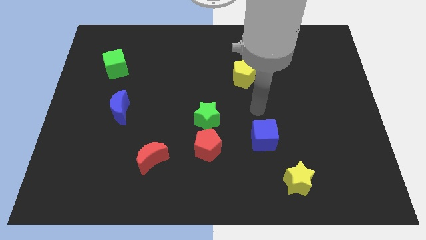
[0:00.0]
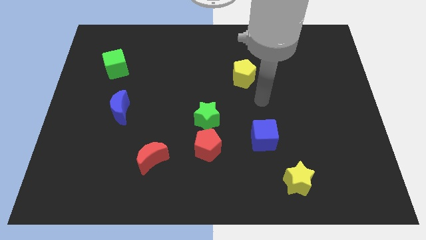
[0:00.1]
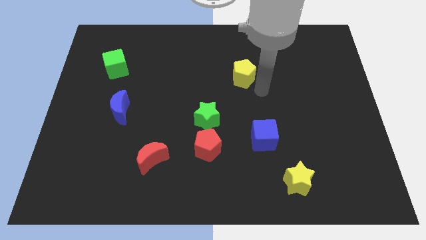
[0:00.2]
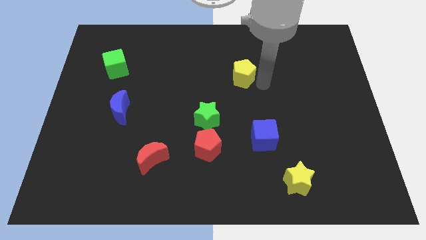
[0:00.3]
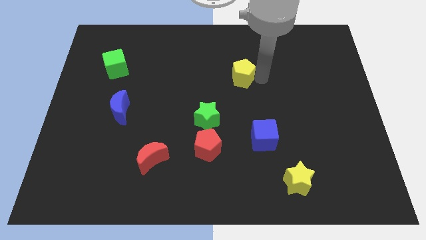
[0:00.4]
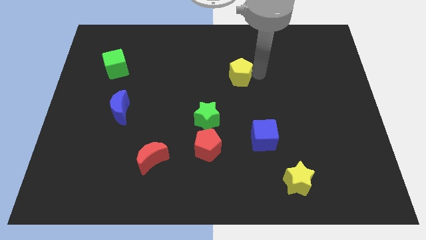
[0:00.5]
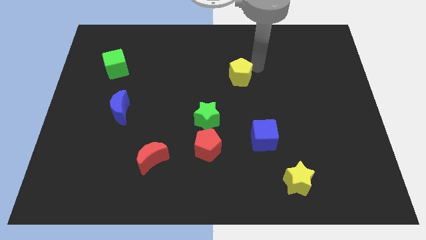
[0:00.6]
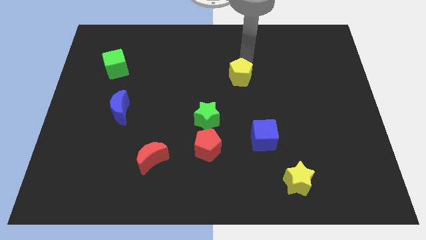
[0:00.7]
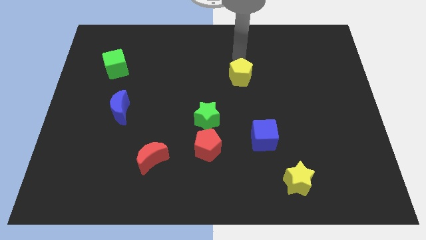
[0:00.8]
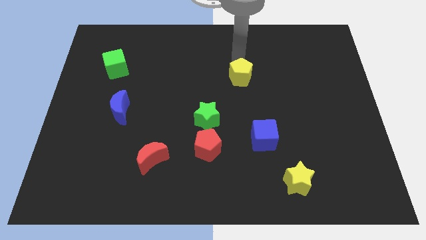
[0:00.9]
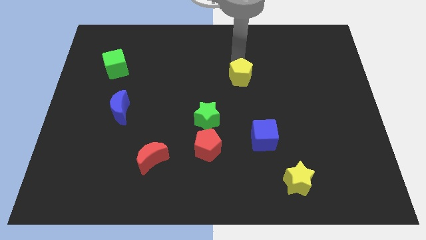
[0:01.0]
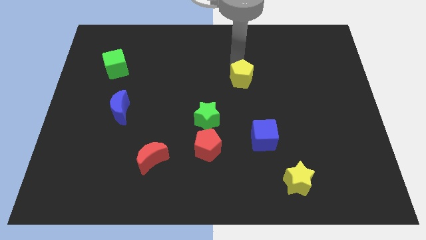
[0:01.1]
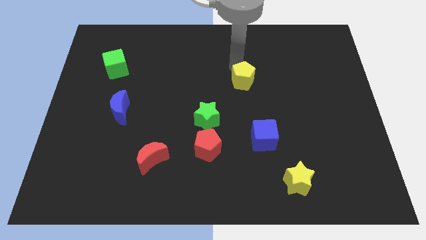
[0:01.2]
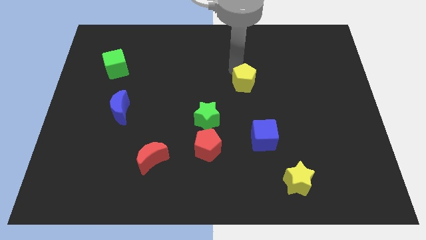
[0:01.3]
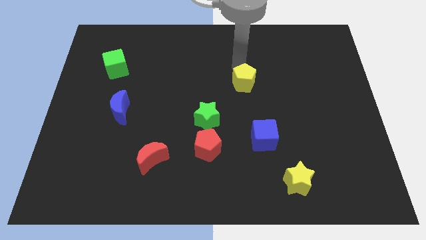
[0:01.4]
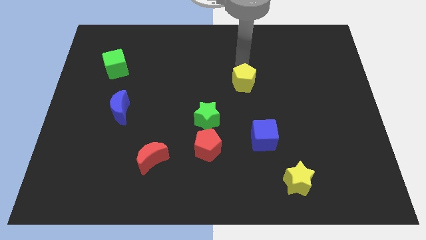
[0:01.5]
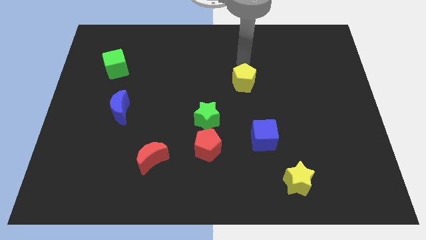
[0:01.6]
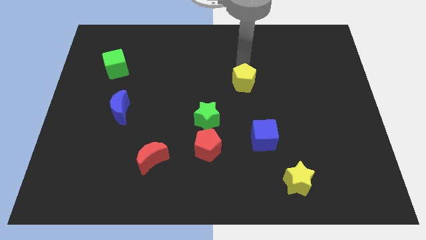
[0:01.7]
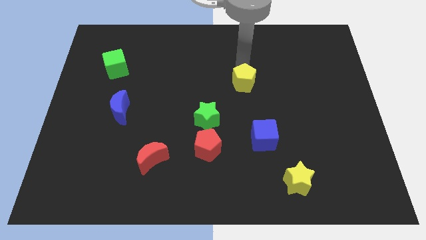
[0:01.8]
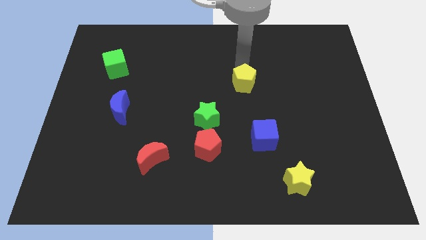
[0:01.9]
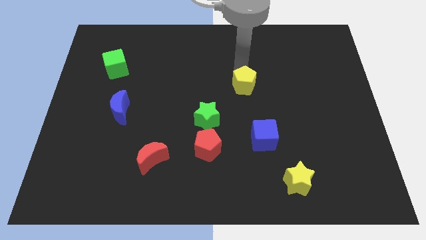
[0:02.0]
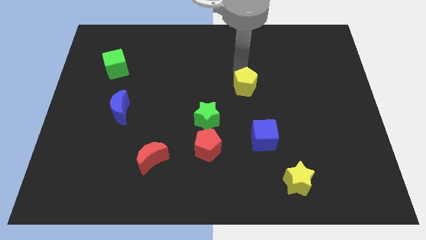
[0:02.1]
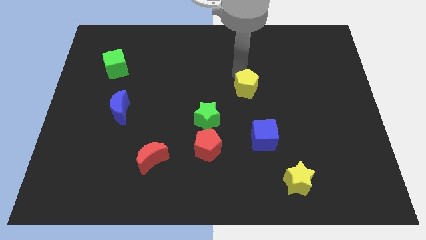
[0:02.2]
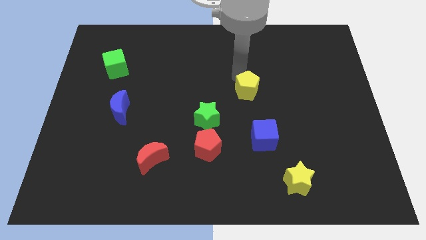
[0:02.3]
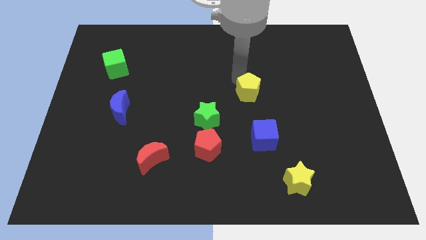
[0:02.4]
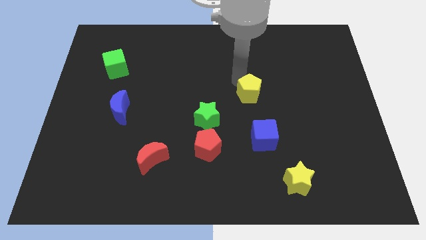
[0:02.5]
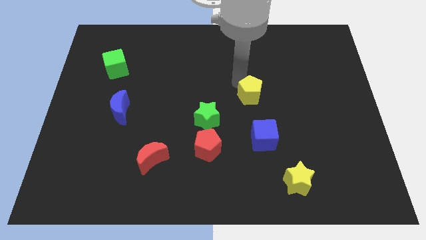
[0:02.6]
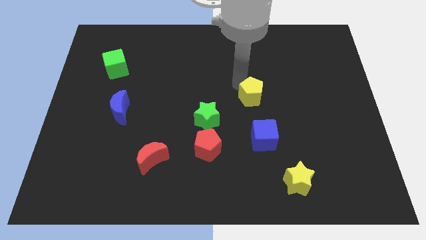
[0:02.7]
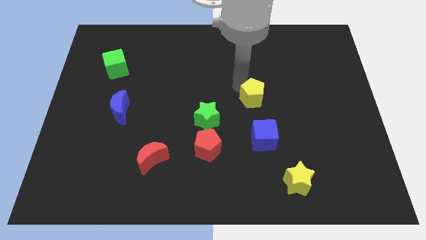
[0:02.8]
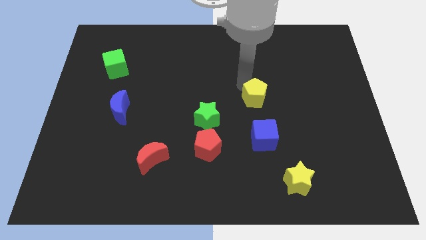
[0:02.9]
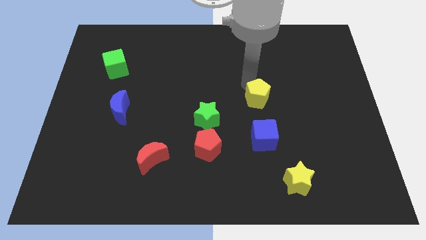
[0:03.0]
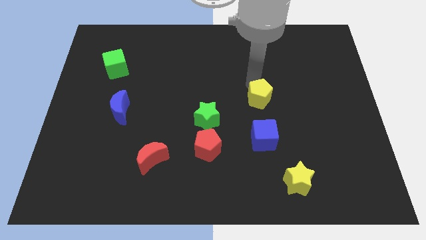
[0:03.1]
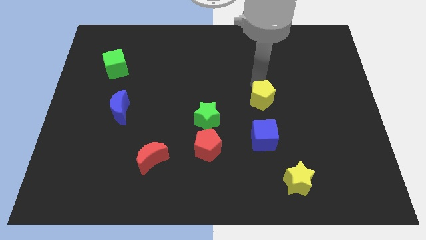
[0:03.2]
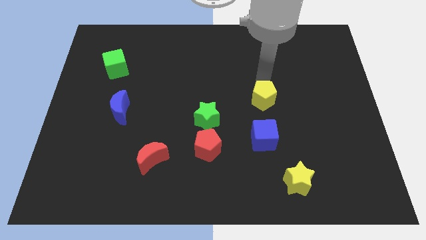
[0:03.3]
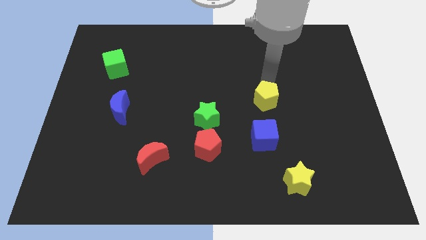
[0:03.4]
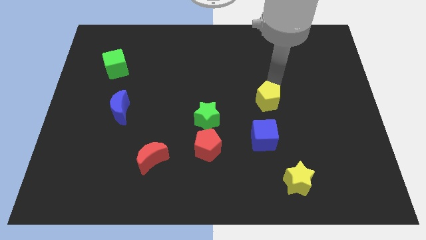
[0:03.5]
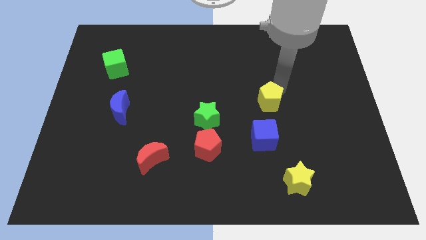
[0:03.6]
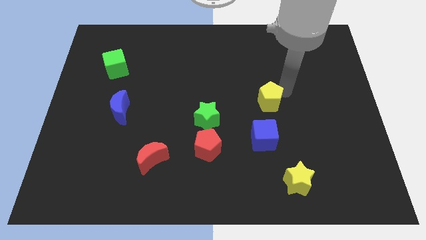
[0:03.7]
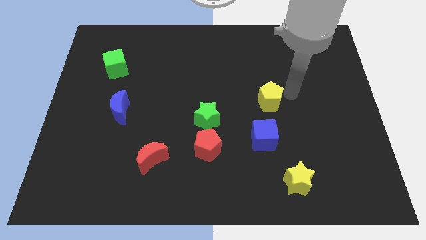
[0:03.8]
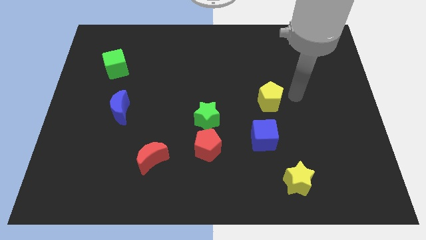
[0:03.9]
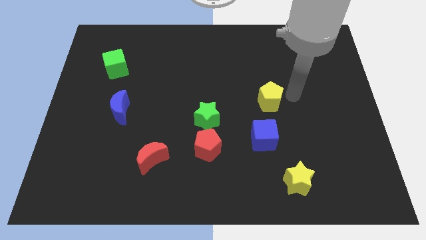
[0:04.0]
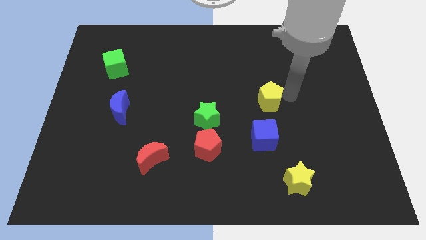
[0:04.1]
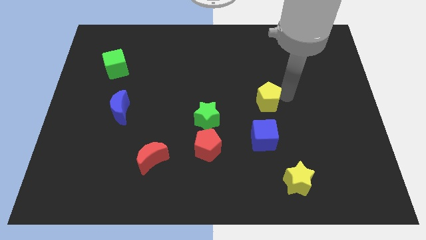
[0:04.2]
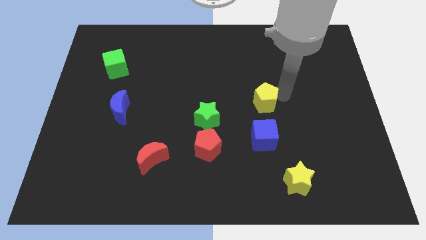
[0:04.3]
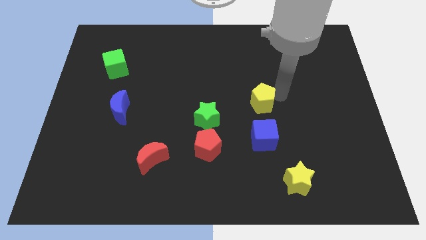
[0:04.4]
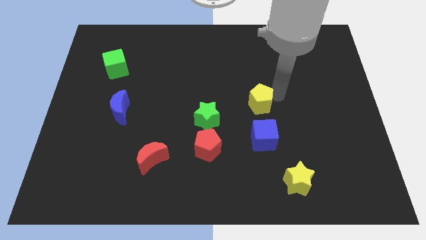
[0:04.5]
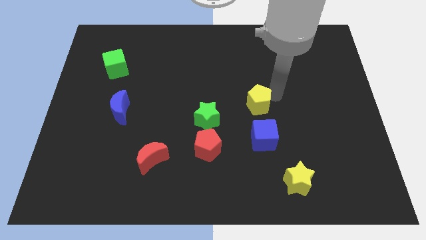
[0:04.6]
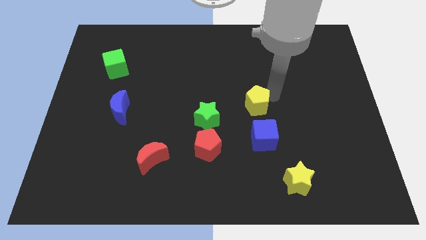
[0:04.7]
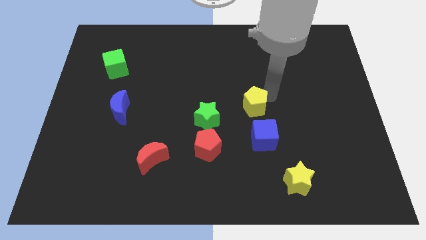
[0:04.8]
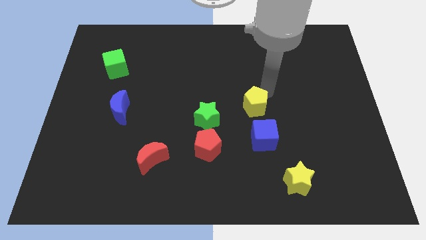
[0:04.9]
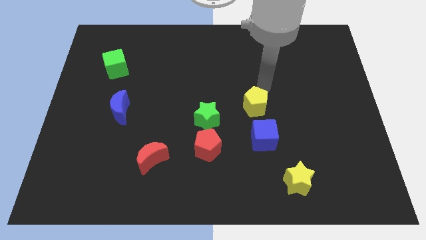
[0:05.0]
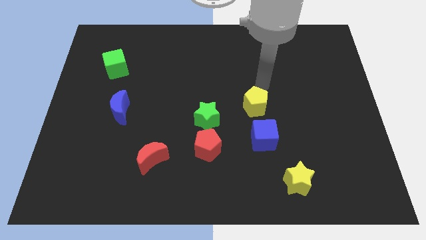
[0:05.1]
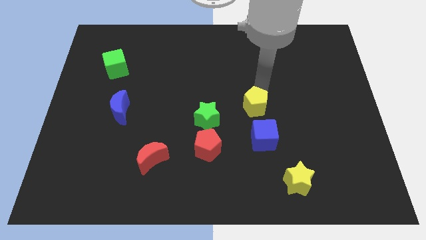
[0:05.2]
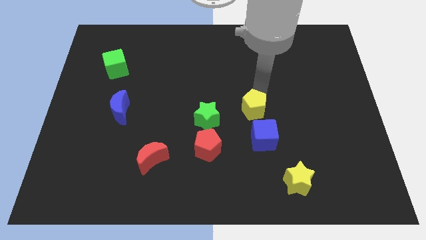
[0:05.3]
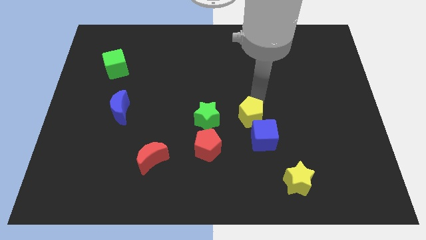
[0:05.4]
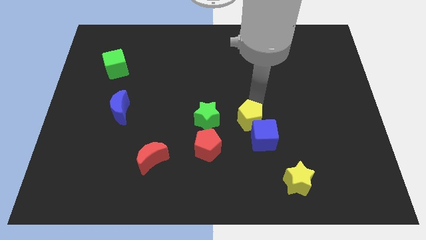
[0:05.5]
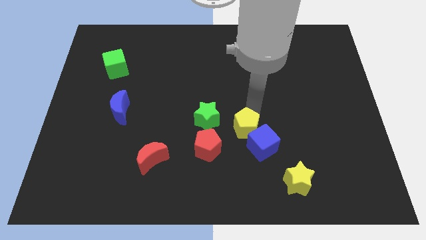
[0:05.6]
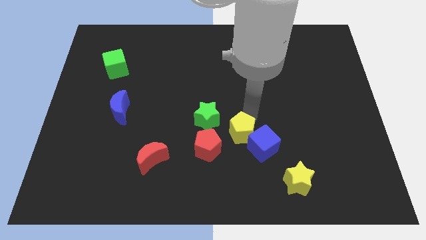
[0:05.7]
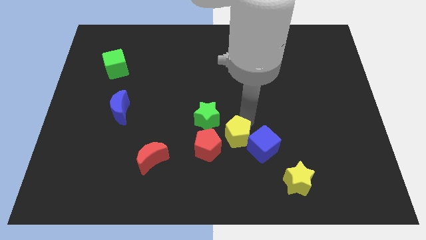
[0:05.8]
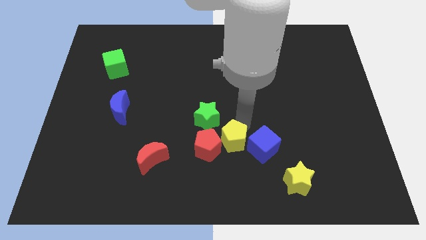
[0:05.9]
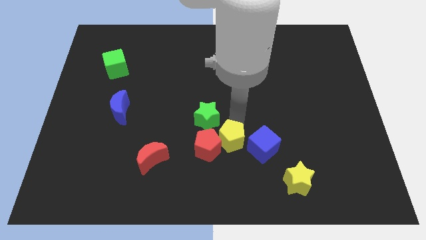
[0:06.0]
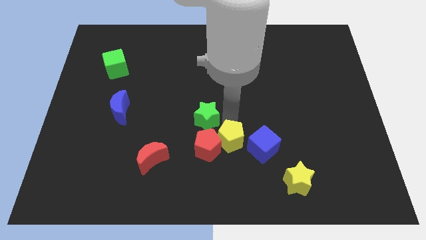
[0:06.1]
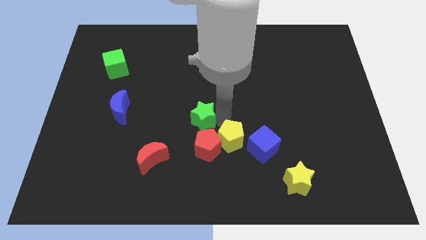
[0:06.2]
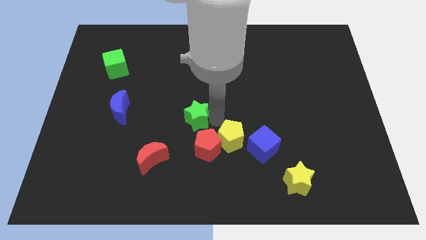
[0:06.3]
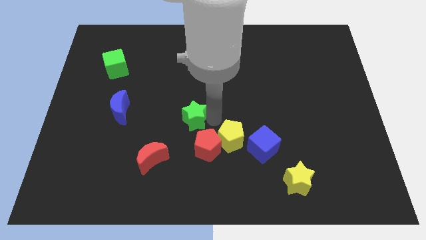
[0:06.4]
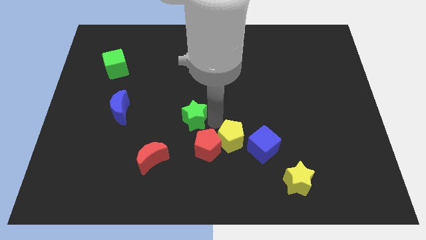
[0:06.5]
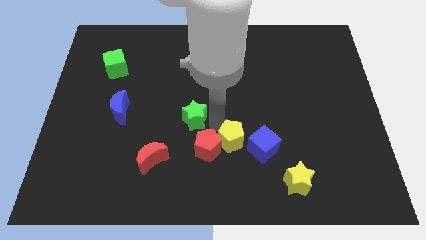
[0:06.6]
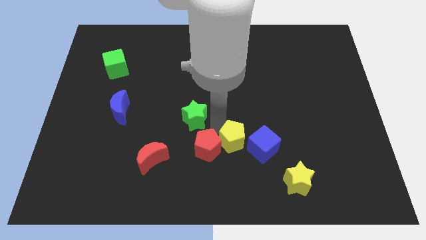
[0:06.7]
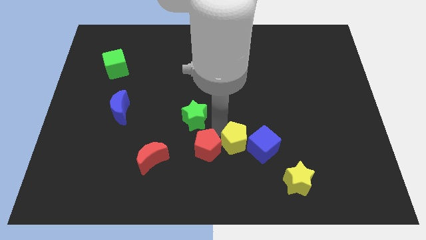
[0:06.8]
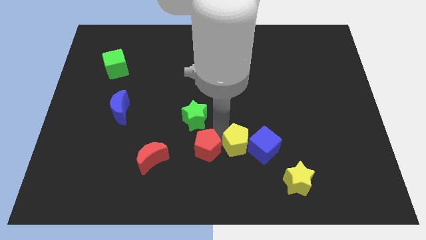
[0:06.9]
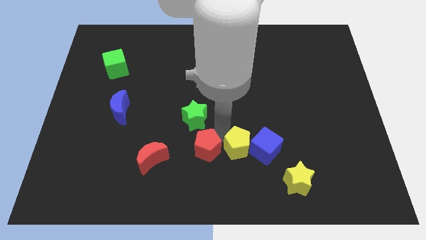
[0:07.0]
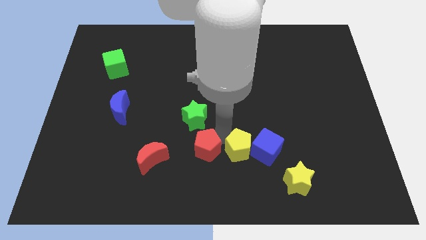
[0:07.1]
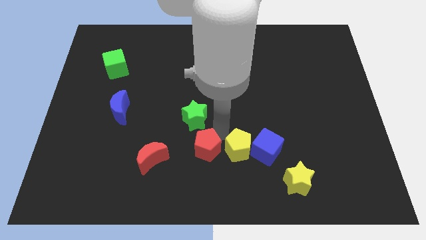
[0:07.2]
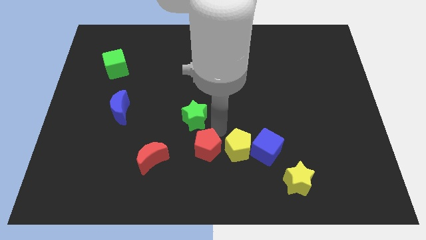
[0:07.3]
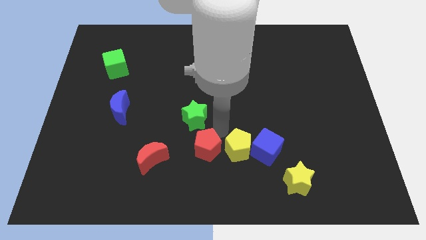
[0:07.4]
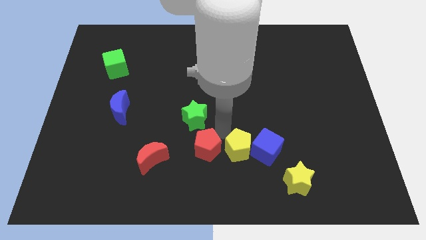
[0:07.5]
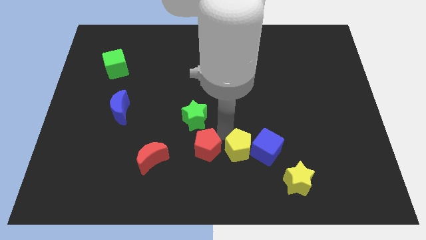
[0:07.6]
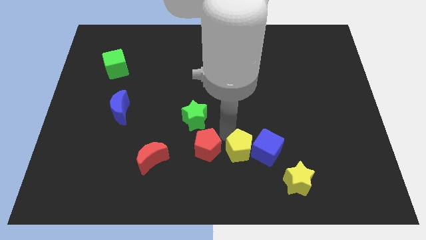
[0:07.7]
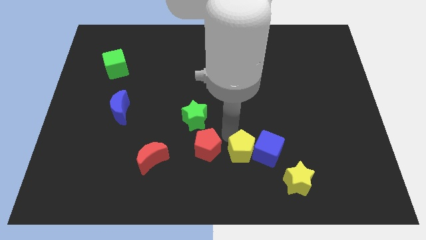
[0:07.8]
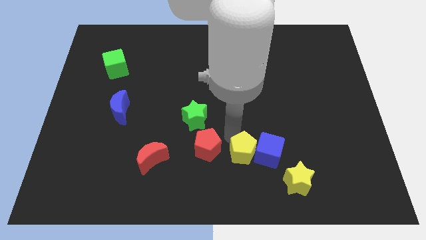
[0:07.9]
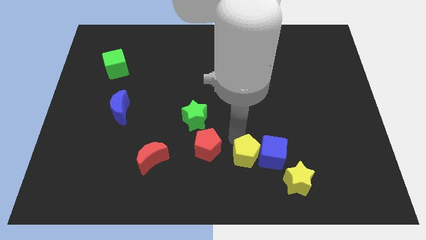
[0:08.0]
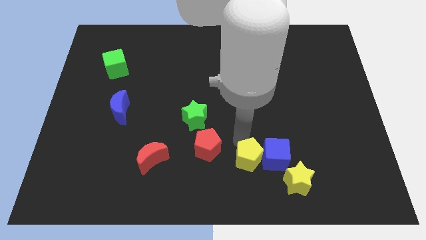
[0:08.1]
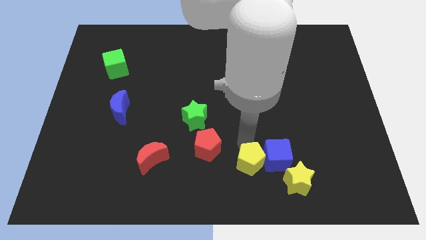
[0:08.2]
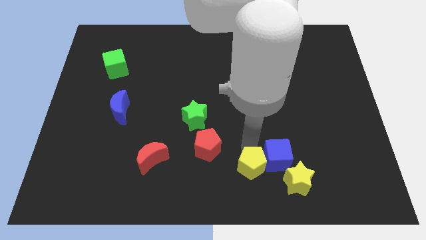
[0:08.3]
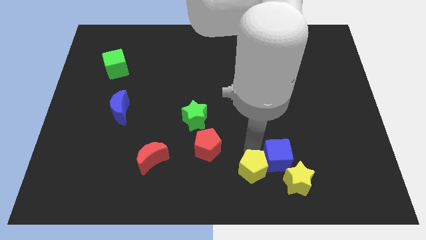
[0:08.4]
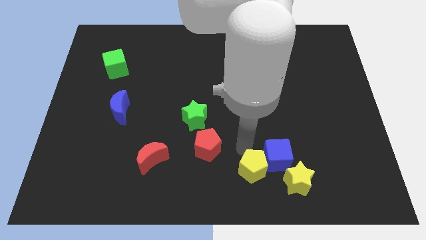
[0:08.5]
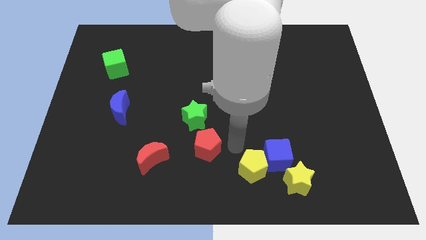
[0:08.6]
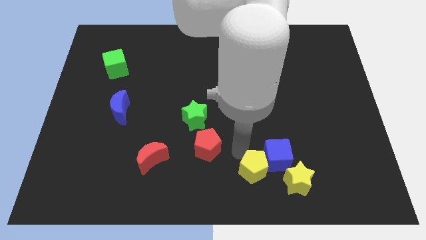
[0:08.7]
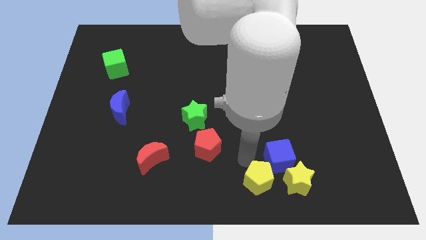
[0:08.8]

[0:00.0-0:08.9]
slide the yellow pentagon to the bottom of the blue cube
